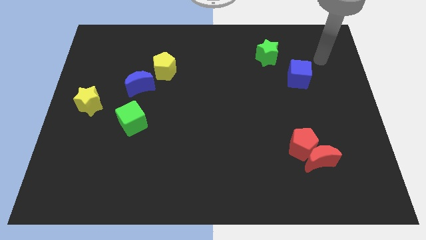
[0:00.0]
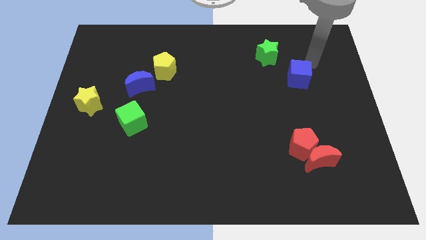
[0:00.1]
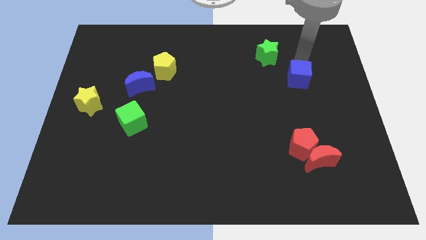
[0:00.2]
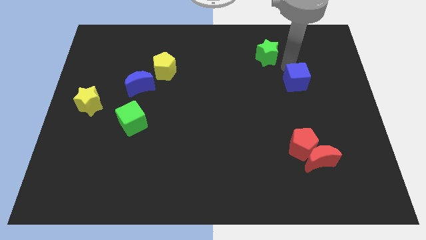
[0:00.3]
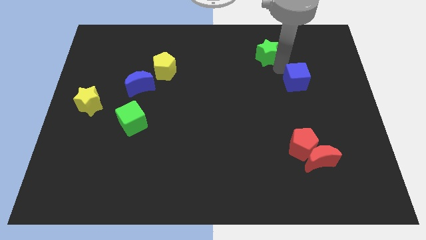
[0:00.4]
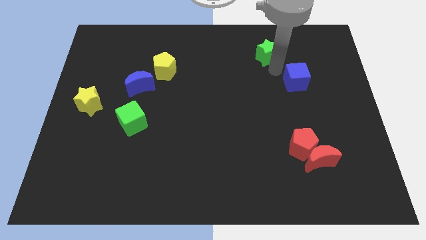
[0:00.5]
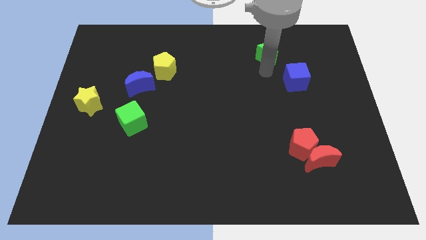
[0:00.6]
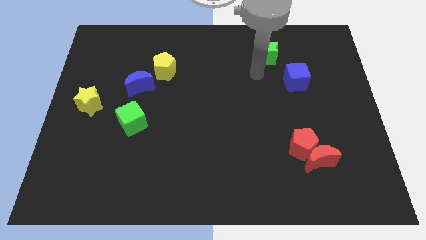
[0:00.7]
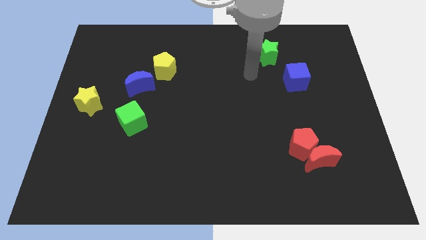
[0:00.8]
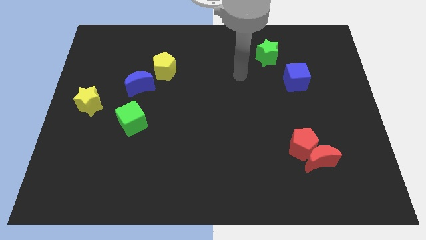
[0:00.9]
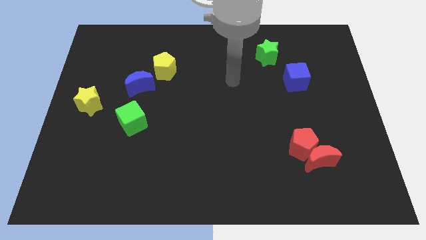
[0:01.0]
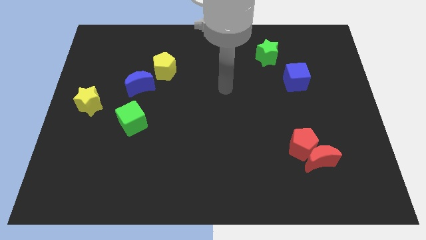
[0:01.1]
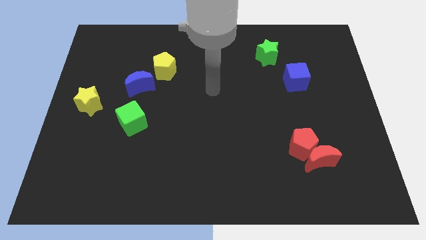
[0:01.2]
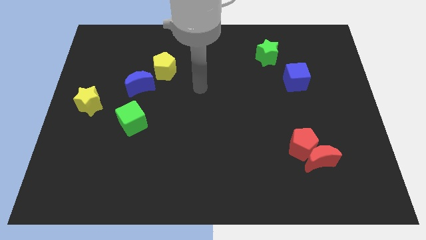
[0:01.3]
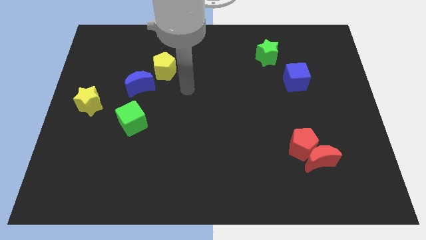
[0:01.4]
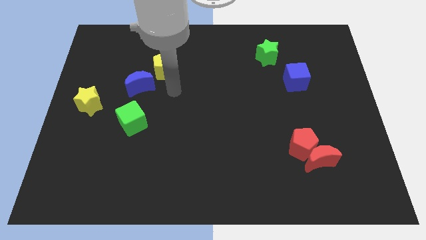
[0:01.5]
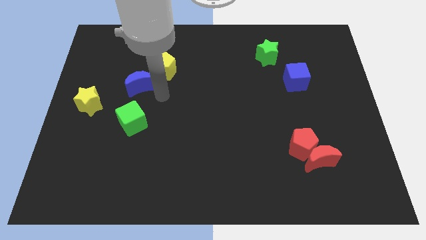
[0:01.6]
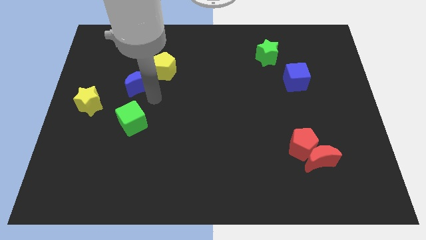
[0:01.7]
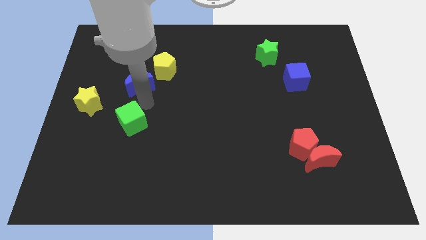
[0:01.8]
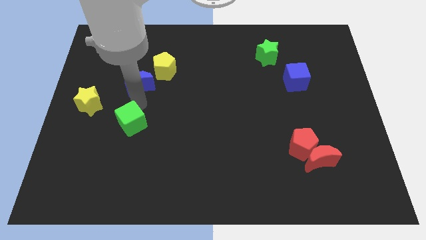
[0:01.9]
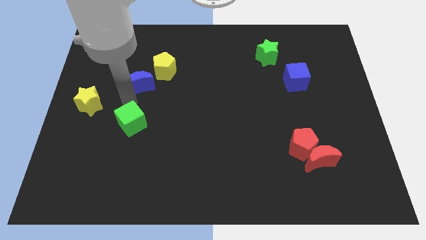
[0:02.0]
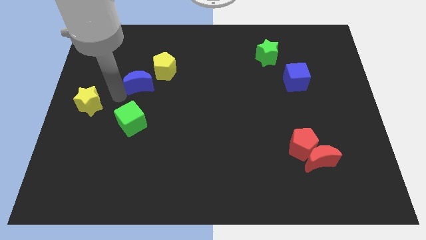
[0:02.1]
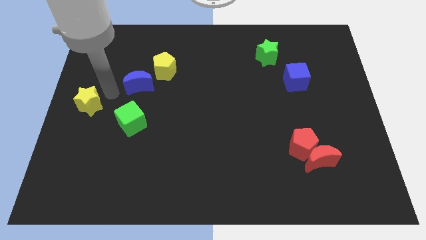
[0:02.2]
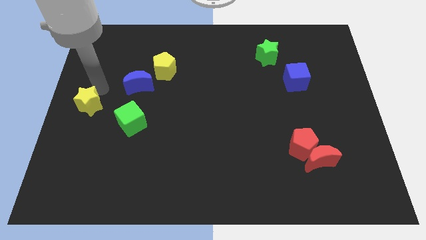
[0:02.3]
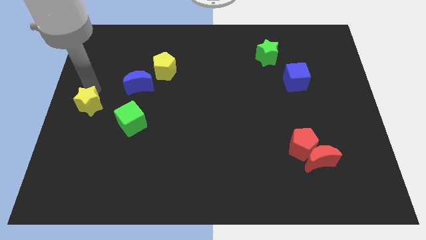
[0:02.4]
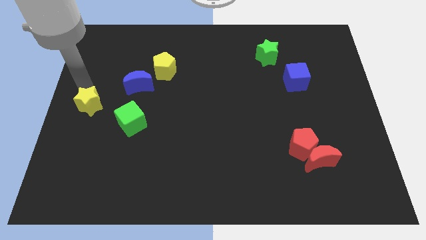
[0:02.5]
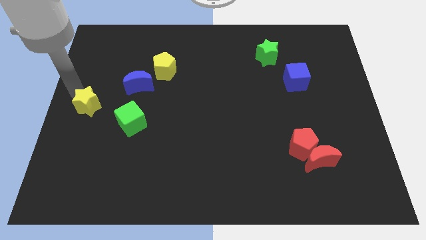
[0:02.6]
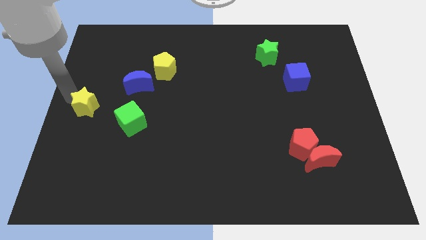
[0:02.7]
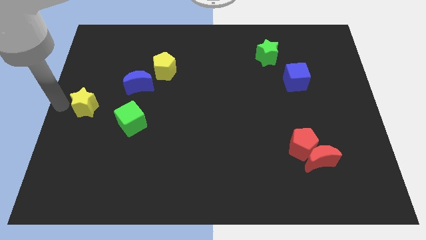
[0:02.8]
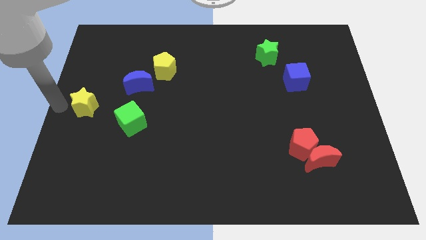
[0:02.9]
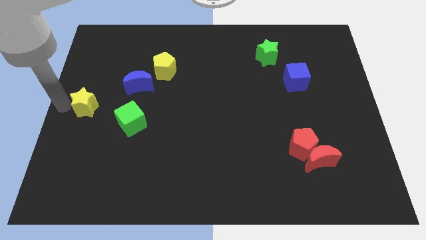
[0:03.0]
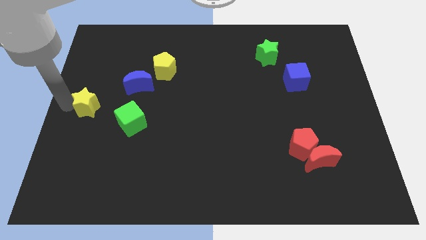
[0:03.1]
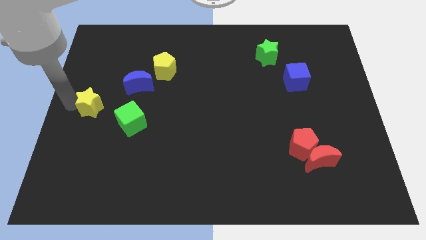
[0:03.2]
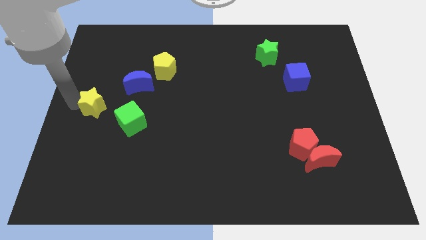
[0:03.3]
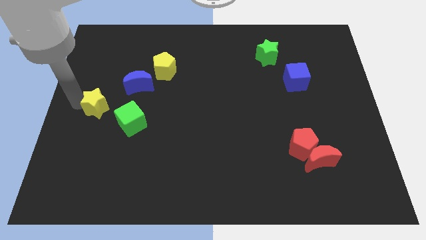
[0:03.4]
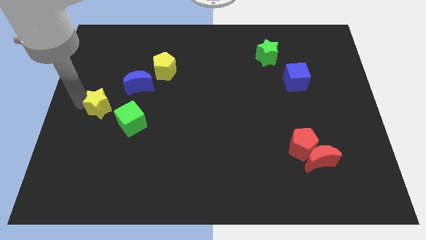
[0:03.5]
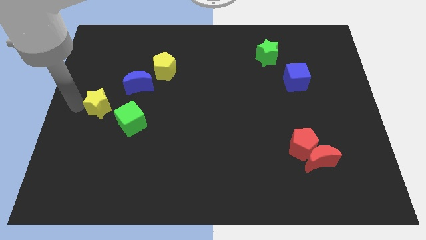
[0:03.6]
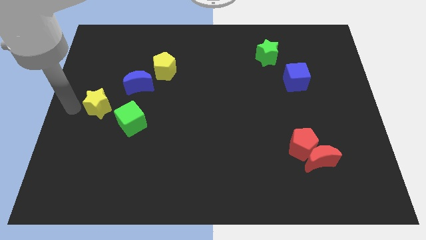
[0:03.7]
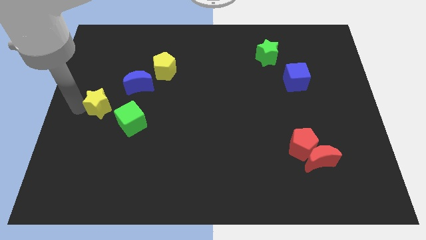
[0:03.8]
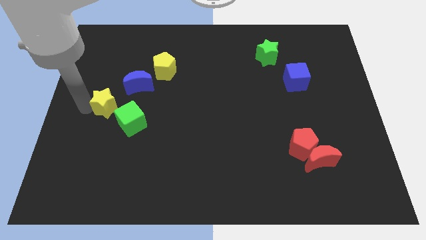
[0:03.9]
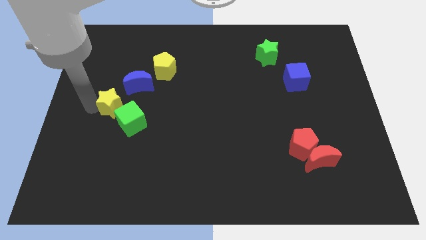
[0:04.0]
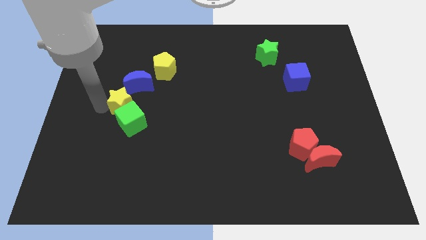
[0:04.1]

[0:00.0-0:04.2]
slide the yellow star slightly to the right

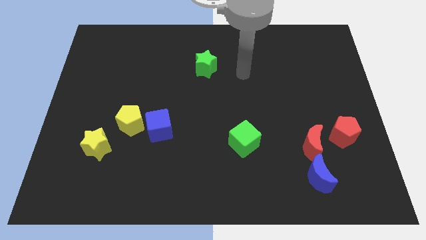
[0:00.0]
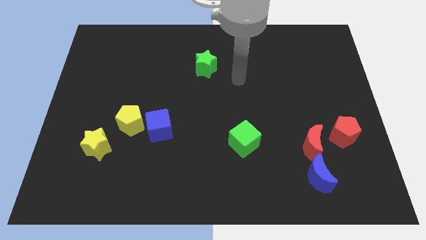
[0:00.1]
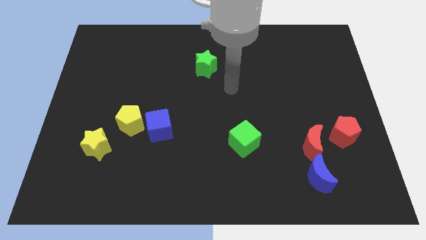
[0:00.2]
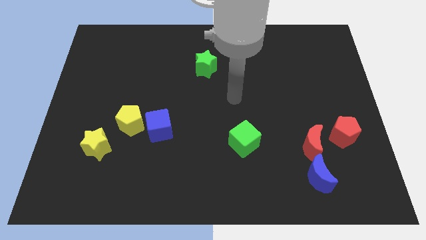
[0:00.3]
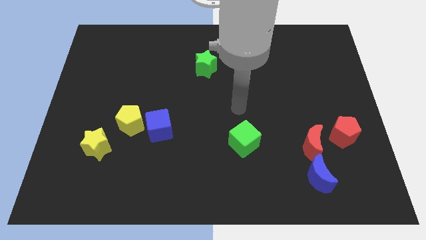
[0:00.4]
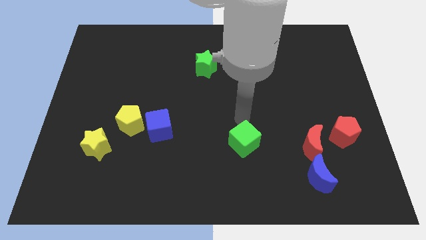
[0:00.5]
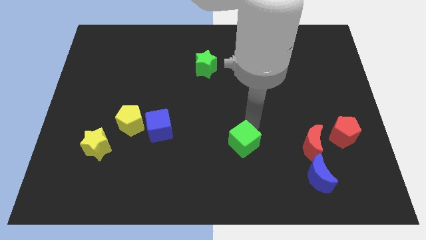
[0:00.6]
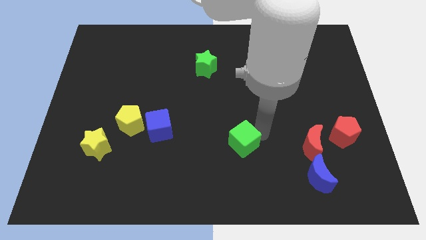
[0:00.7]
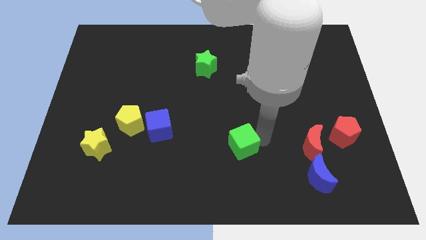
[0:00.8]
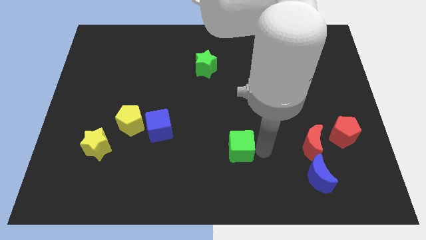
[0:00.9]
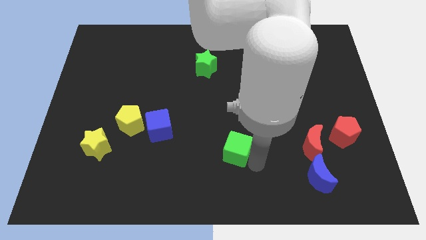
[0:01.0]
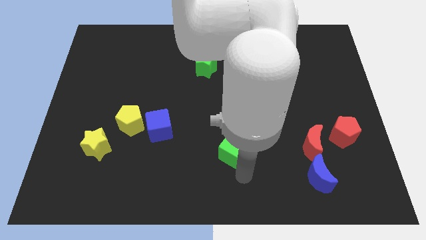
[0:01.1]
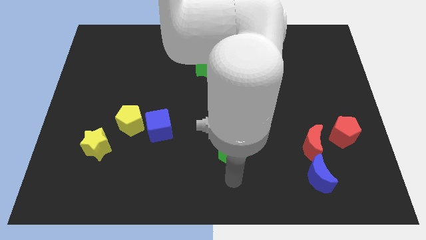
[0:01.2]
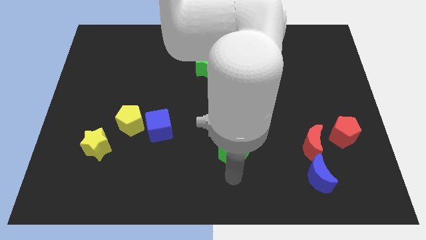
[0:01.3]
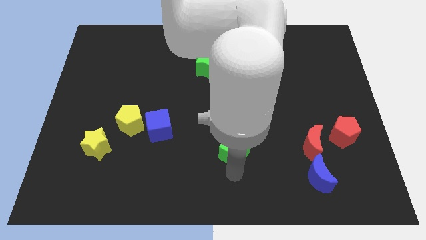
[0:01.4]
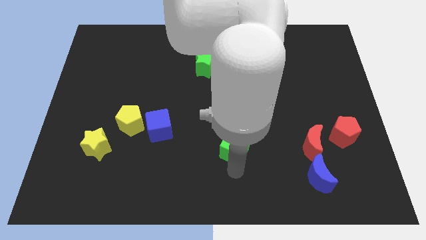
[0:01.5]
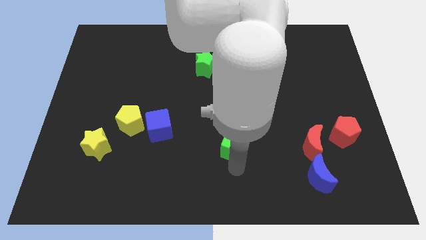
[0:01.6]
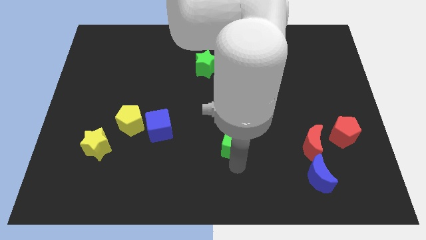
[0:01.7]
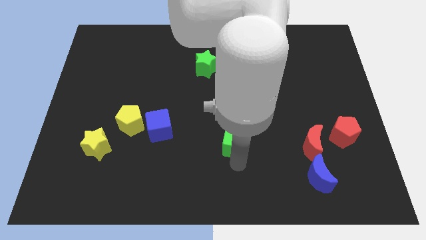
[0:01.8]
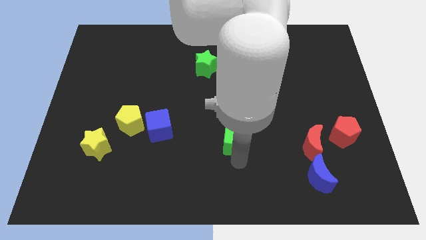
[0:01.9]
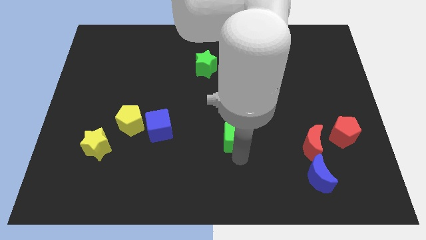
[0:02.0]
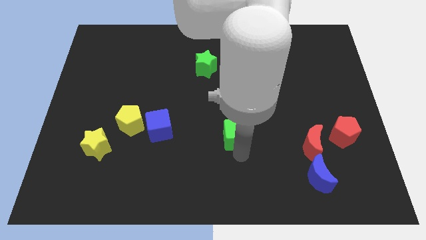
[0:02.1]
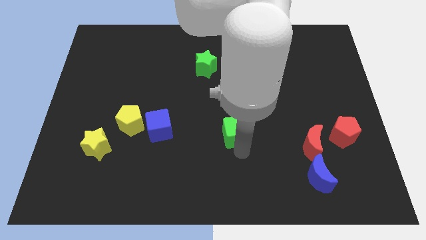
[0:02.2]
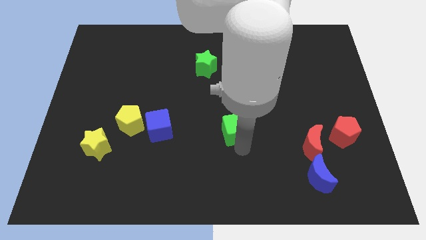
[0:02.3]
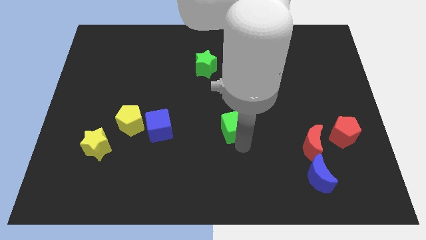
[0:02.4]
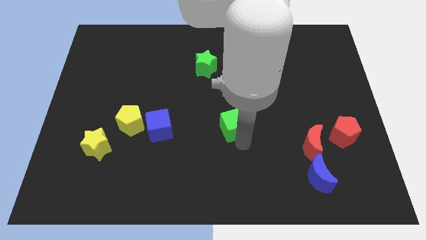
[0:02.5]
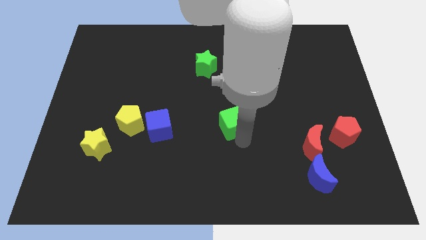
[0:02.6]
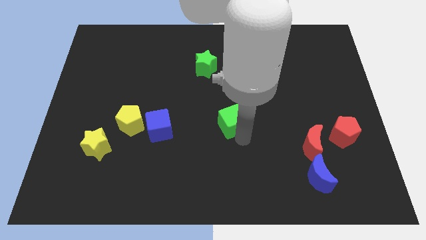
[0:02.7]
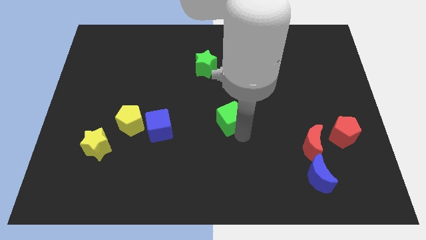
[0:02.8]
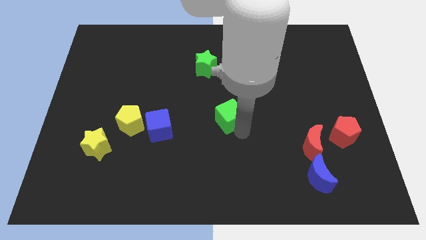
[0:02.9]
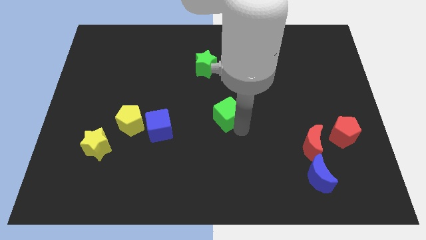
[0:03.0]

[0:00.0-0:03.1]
push the green cube a bit up and left

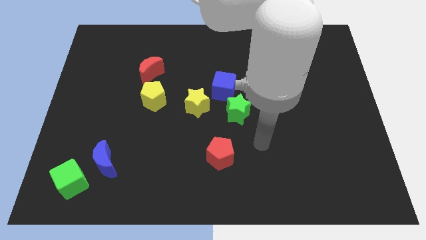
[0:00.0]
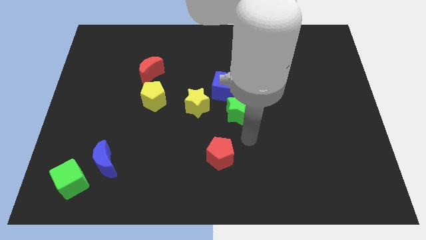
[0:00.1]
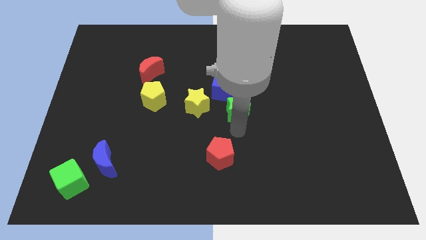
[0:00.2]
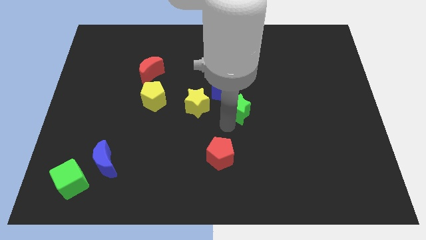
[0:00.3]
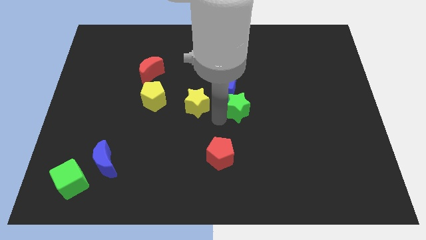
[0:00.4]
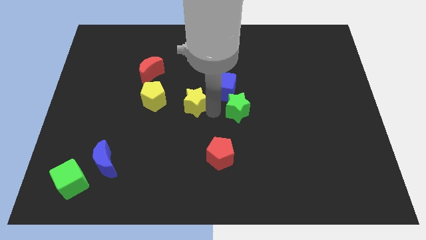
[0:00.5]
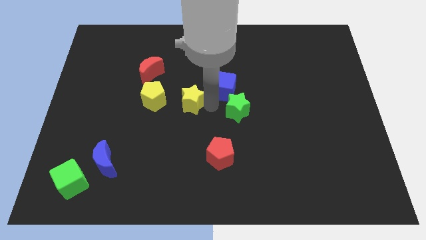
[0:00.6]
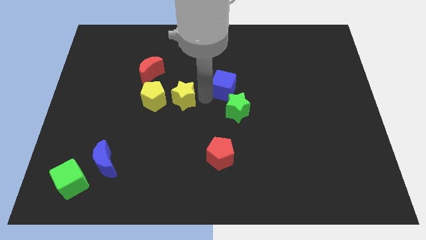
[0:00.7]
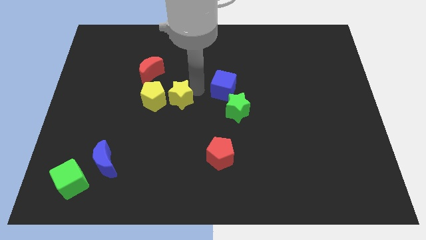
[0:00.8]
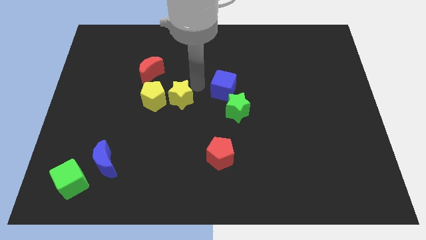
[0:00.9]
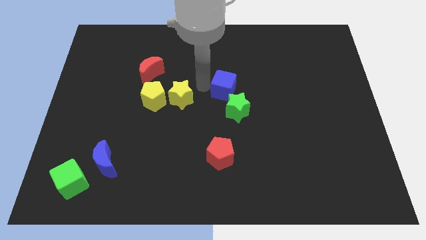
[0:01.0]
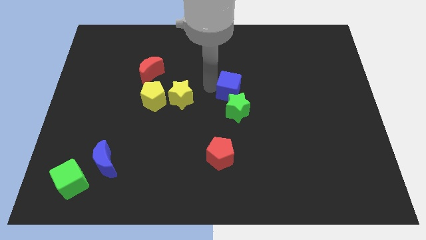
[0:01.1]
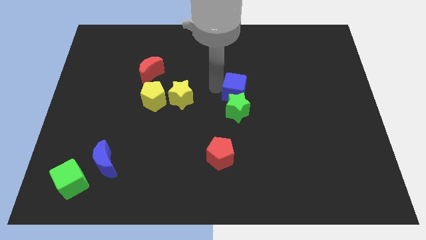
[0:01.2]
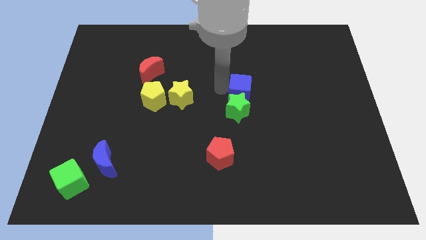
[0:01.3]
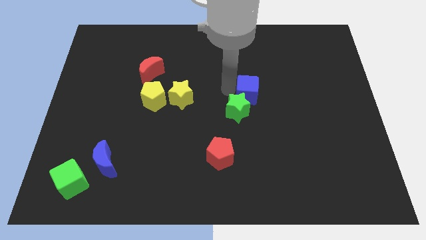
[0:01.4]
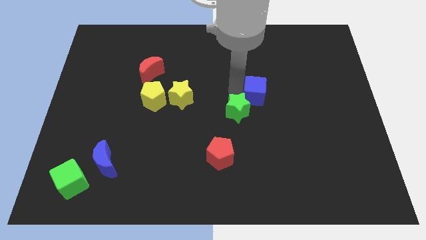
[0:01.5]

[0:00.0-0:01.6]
push the blue cube somewhat to the right
